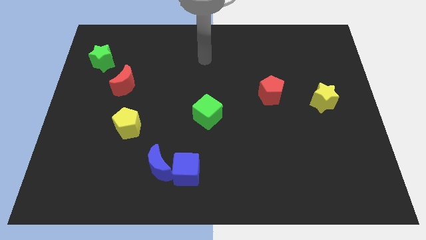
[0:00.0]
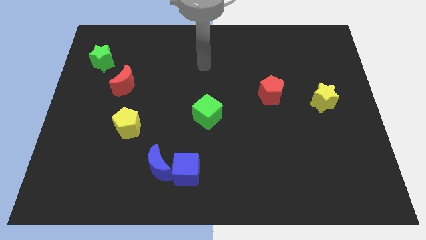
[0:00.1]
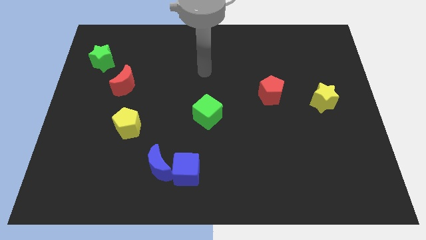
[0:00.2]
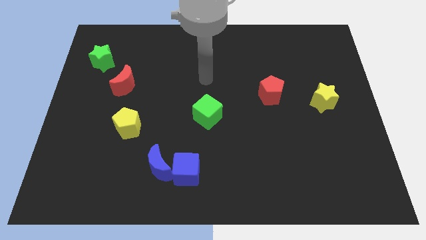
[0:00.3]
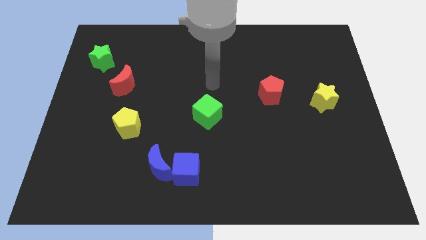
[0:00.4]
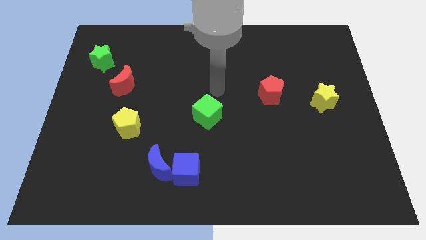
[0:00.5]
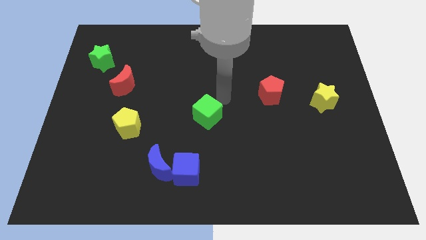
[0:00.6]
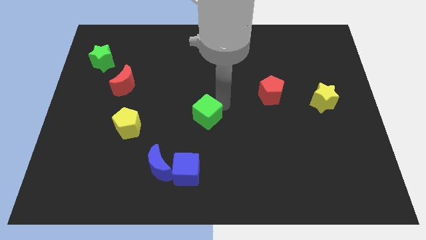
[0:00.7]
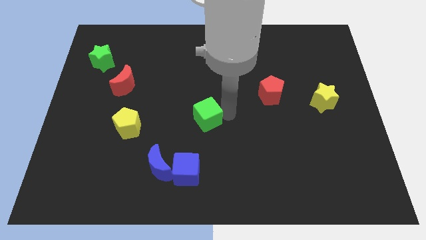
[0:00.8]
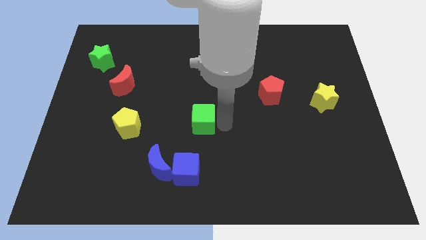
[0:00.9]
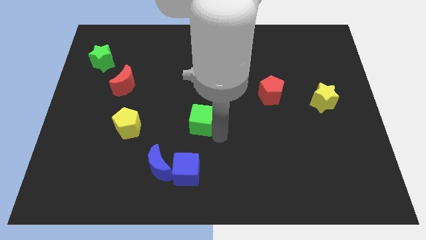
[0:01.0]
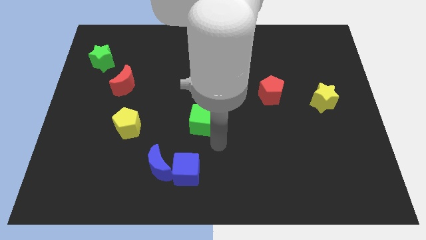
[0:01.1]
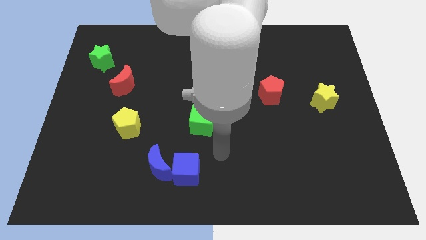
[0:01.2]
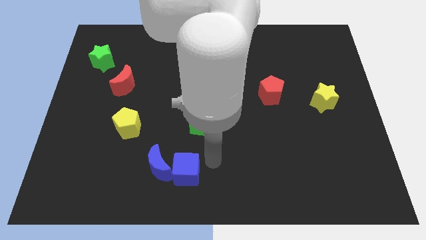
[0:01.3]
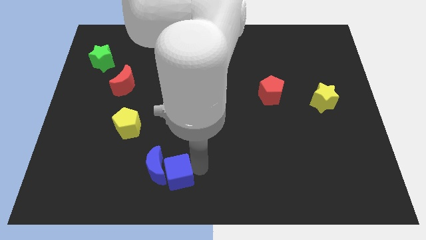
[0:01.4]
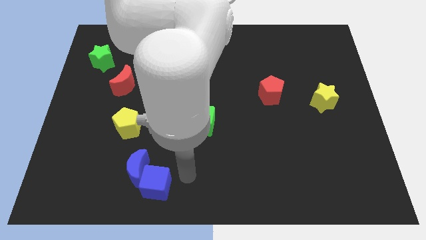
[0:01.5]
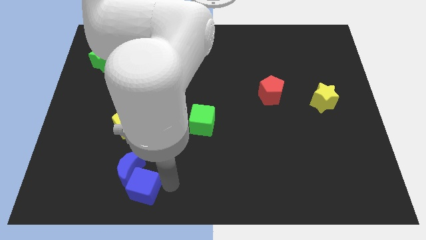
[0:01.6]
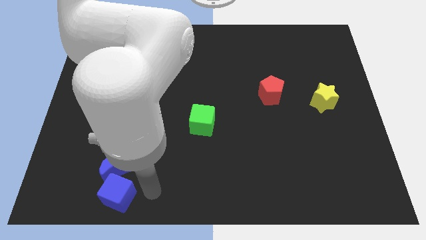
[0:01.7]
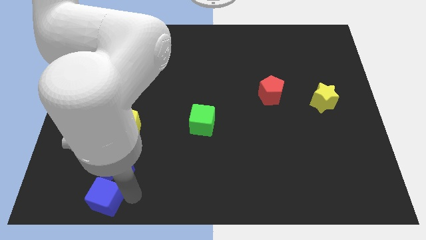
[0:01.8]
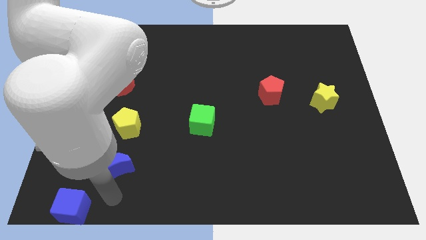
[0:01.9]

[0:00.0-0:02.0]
move the blue moon away from the blue cube

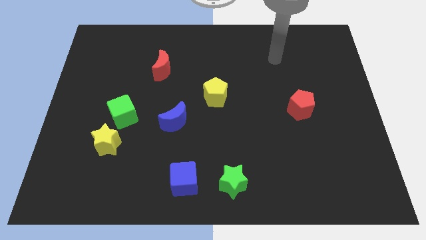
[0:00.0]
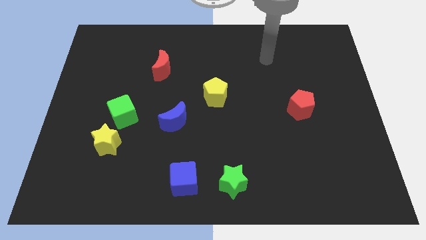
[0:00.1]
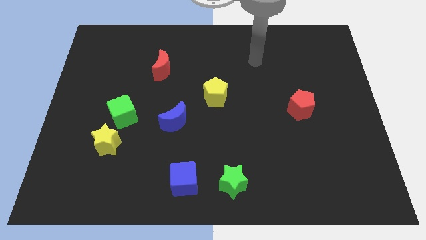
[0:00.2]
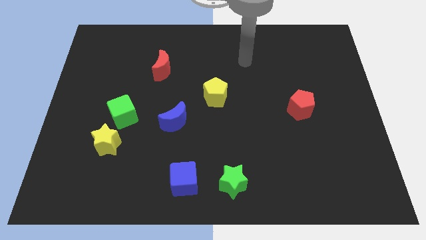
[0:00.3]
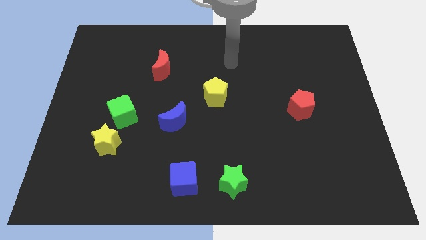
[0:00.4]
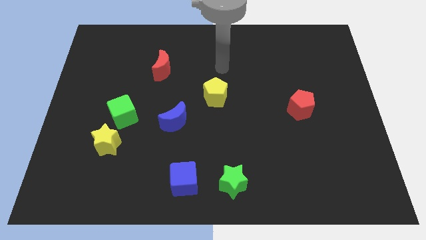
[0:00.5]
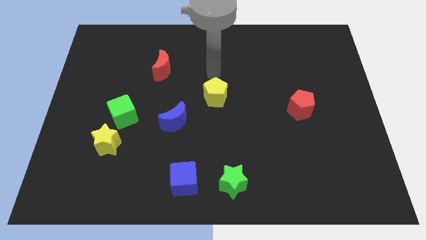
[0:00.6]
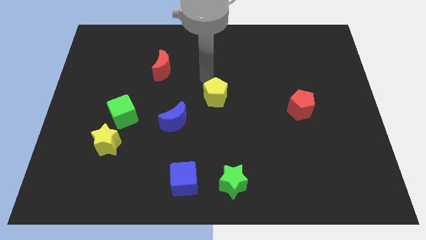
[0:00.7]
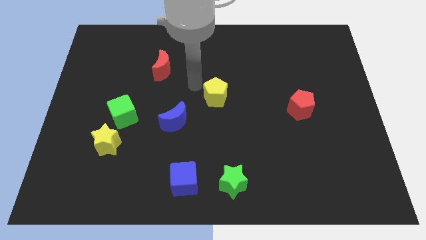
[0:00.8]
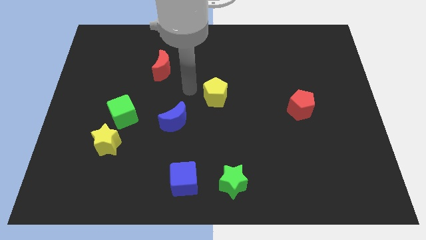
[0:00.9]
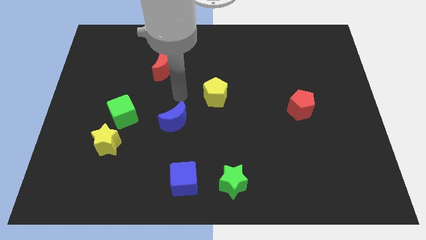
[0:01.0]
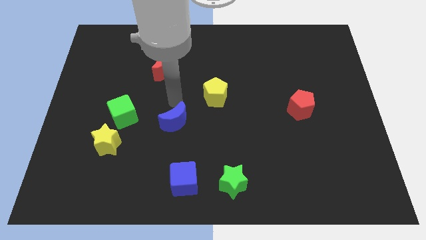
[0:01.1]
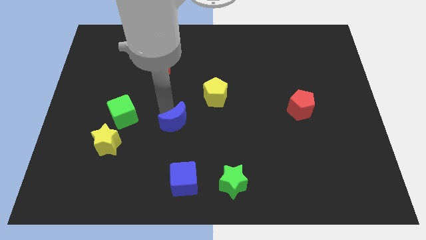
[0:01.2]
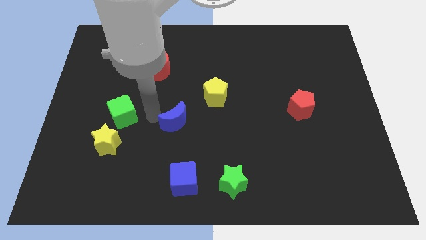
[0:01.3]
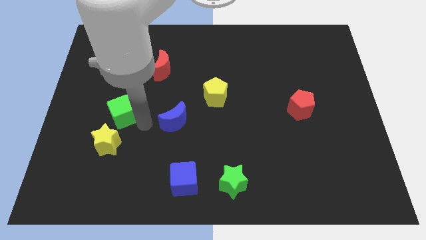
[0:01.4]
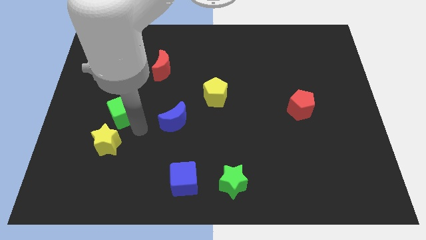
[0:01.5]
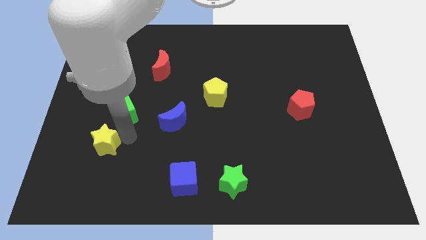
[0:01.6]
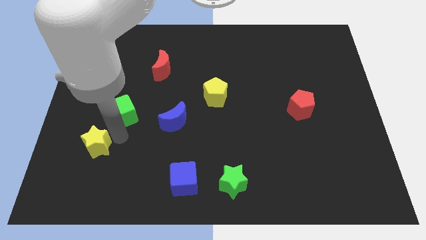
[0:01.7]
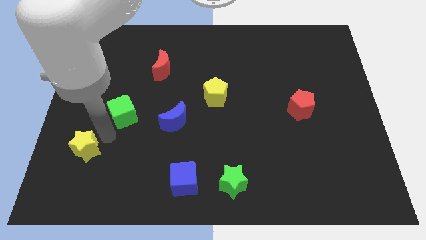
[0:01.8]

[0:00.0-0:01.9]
move the green cube away from the yellow star

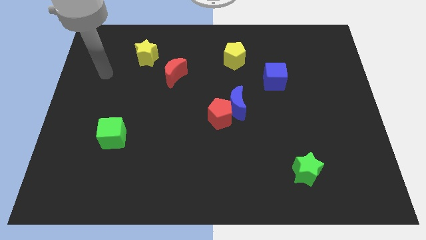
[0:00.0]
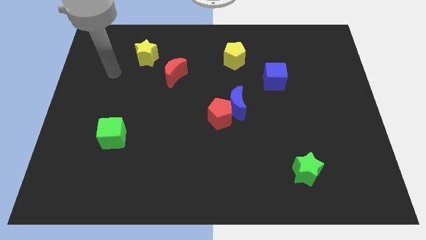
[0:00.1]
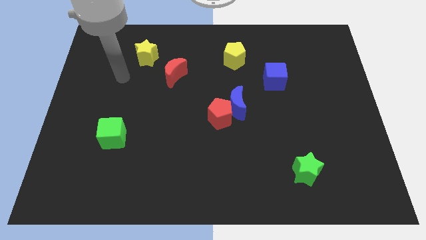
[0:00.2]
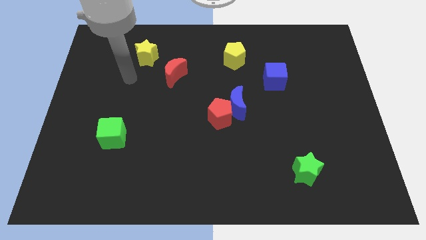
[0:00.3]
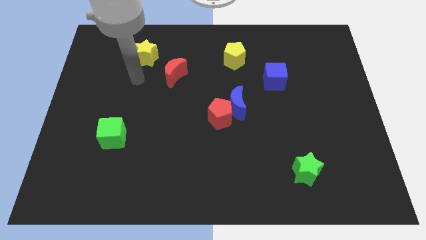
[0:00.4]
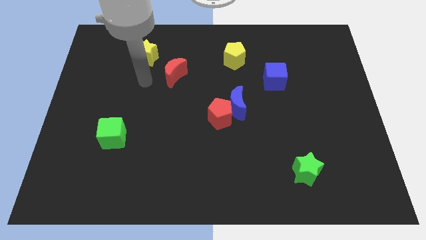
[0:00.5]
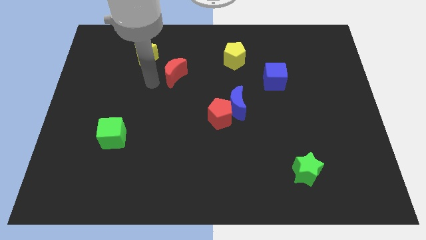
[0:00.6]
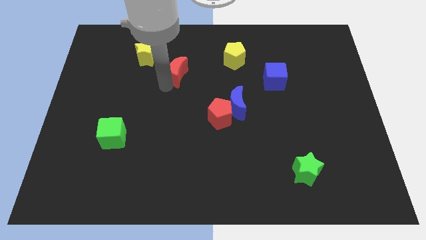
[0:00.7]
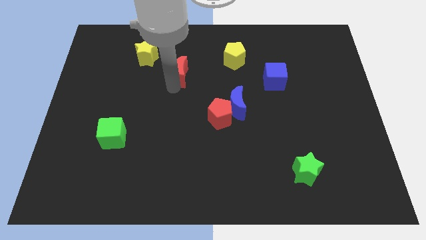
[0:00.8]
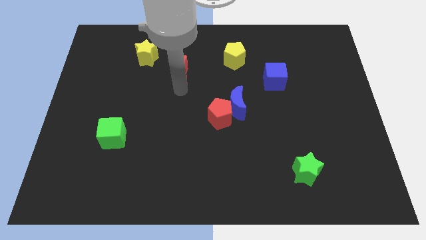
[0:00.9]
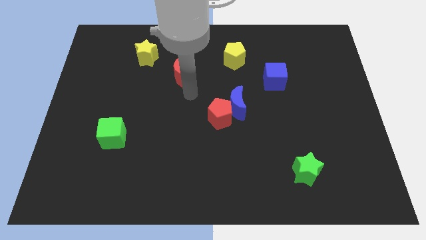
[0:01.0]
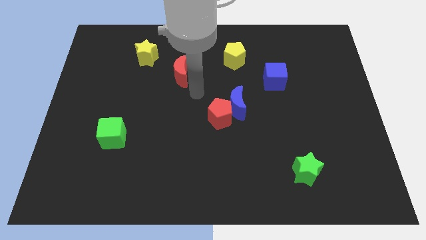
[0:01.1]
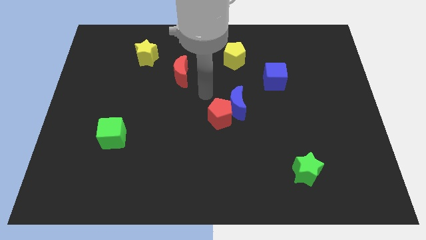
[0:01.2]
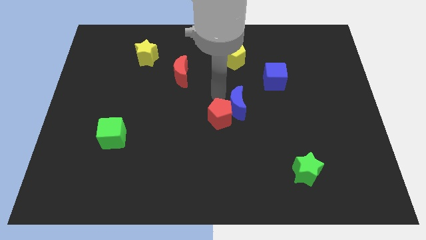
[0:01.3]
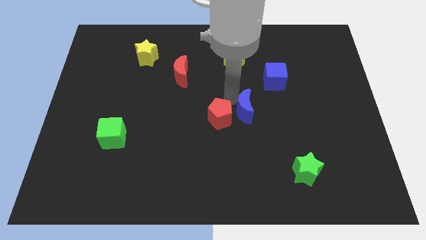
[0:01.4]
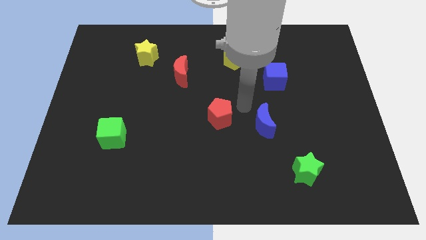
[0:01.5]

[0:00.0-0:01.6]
move the red pentagon away from the blue moon

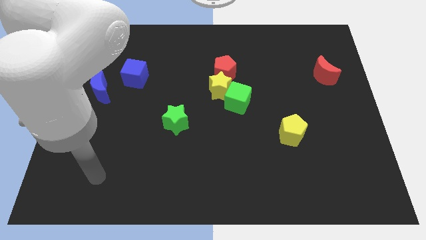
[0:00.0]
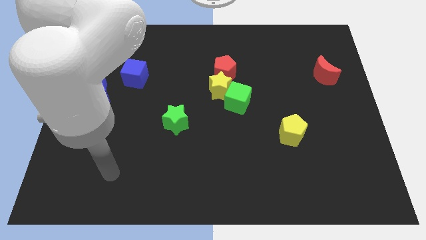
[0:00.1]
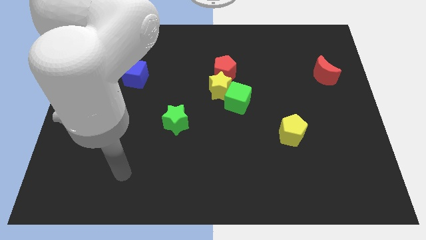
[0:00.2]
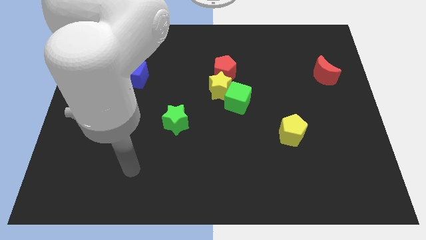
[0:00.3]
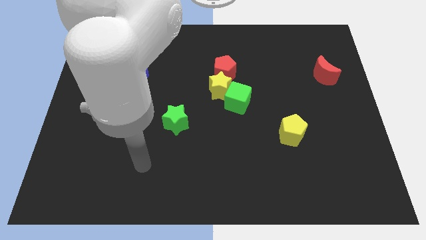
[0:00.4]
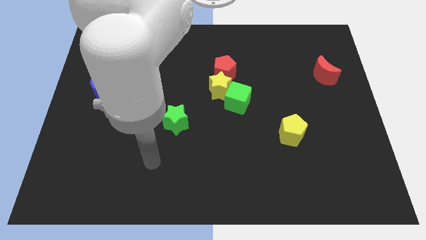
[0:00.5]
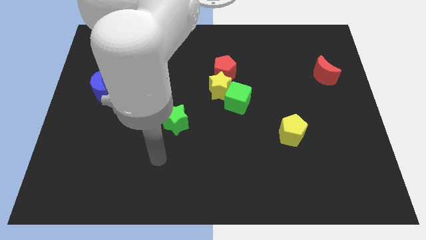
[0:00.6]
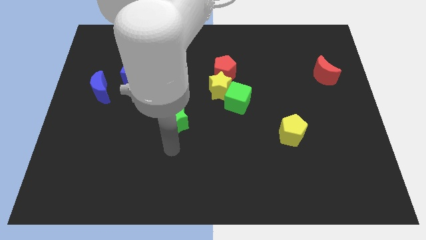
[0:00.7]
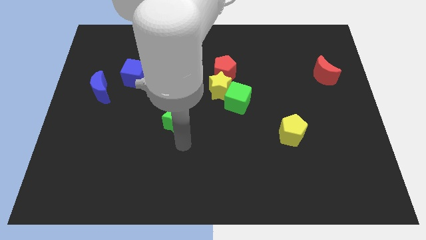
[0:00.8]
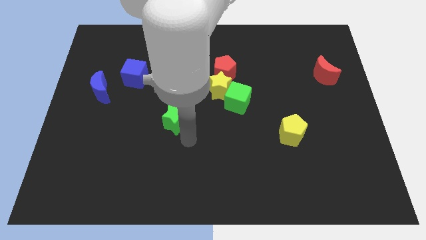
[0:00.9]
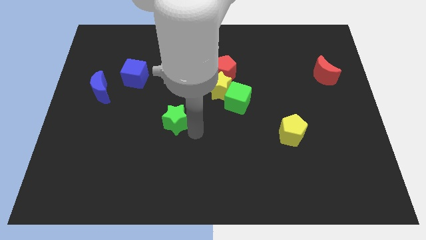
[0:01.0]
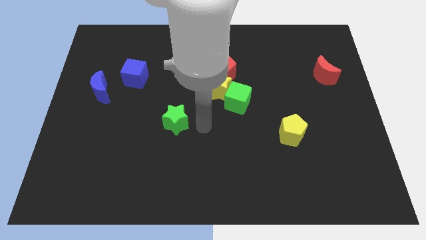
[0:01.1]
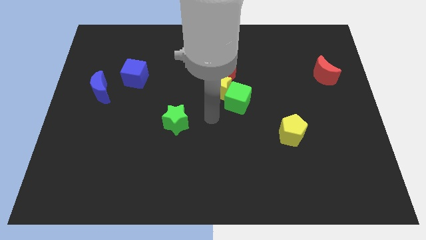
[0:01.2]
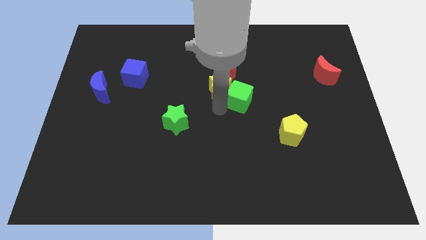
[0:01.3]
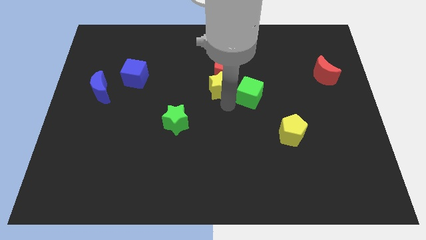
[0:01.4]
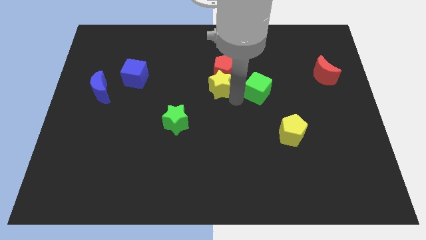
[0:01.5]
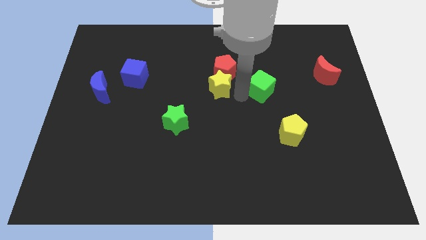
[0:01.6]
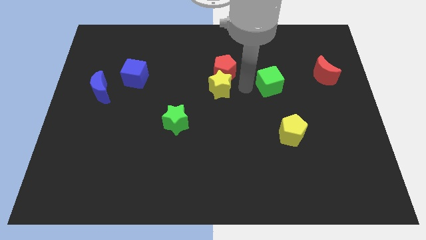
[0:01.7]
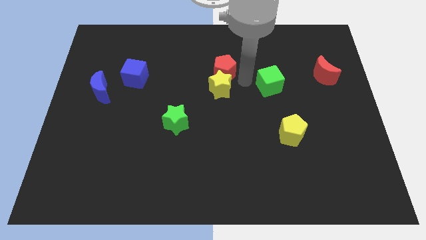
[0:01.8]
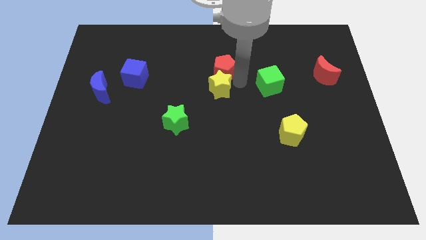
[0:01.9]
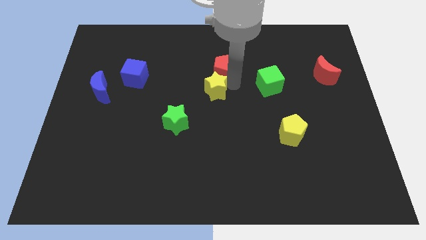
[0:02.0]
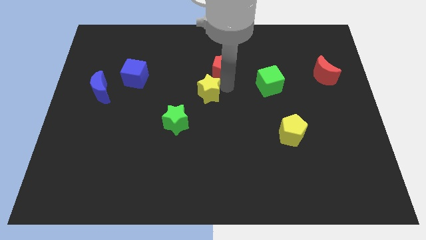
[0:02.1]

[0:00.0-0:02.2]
separate the yellow star from the green cube and red pentagon

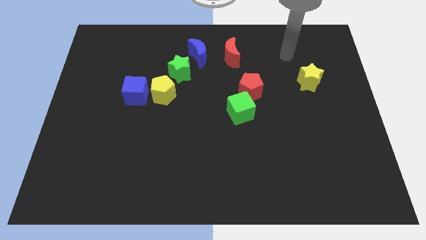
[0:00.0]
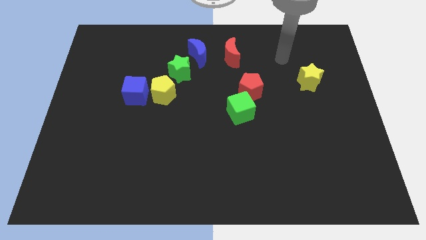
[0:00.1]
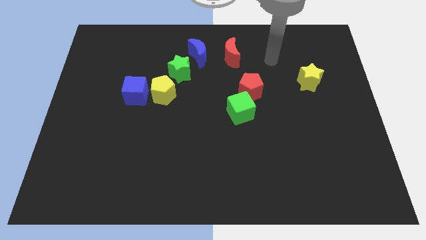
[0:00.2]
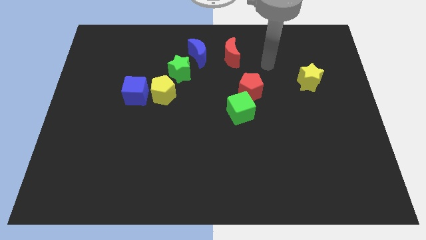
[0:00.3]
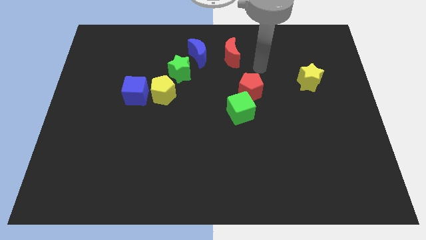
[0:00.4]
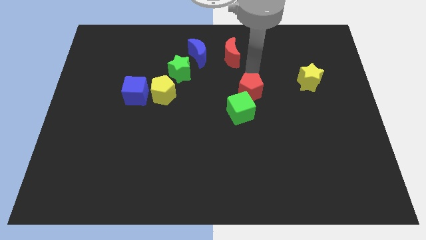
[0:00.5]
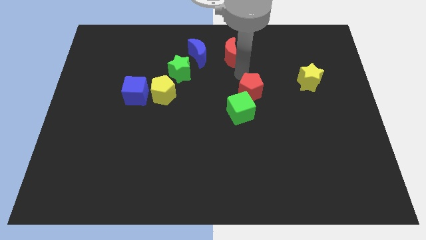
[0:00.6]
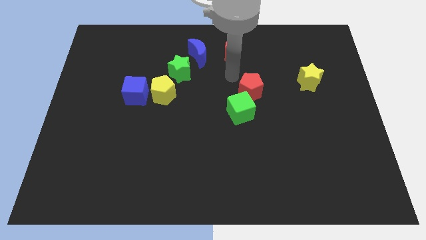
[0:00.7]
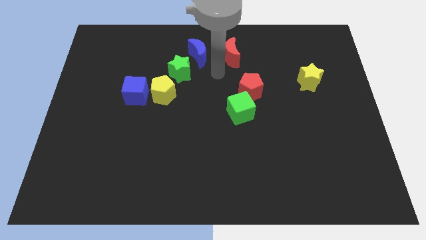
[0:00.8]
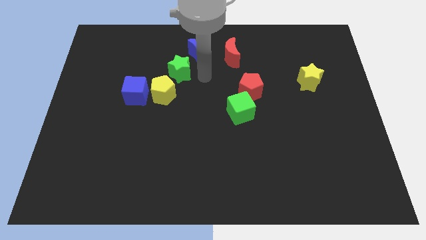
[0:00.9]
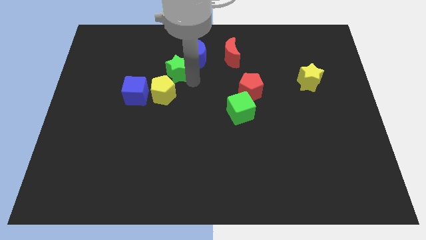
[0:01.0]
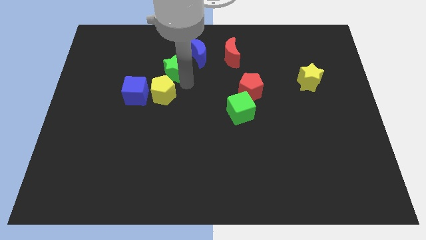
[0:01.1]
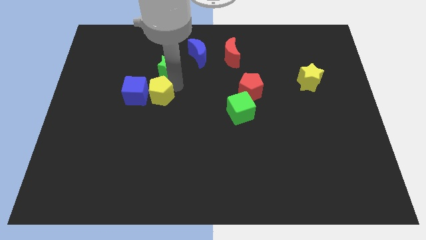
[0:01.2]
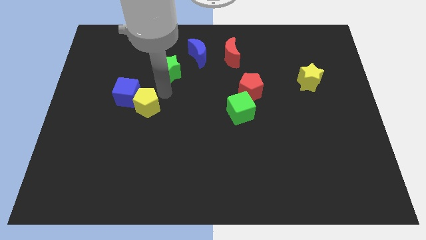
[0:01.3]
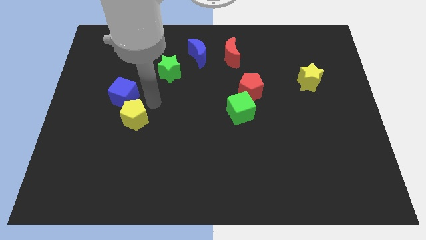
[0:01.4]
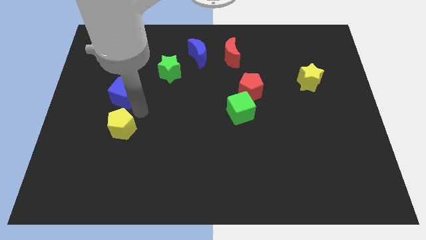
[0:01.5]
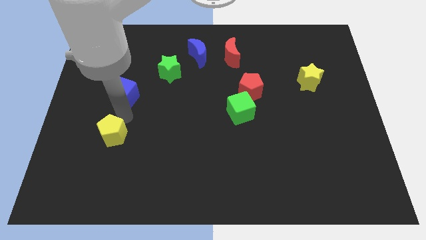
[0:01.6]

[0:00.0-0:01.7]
pull the blue cube apart from the yellow pentagon
